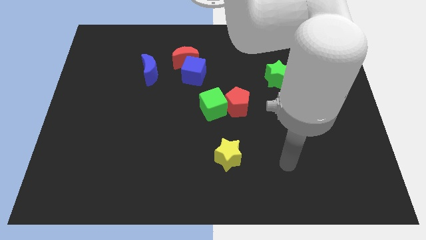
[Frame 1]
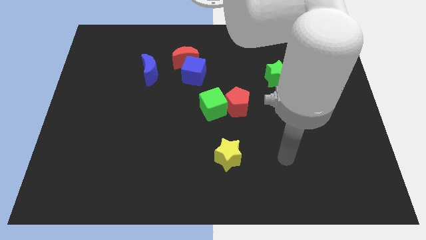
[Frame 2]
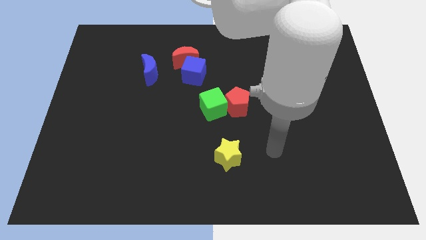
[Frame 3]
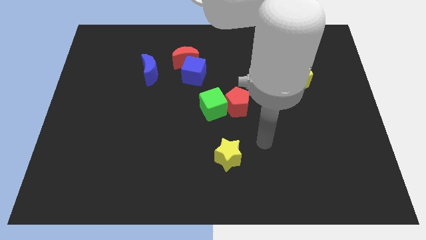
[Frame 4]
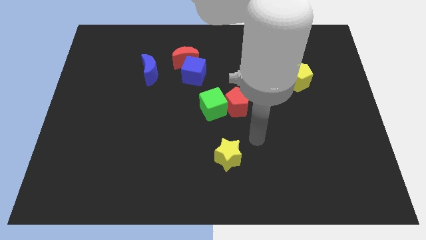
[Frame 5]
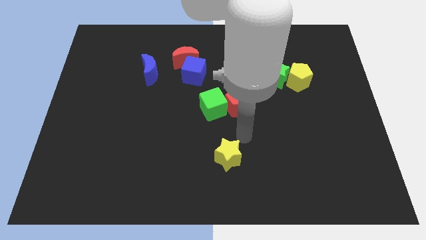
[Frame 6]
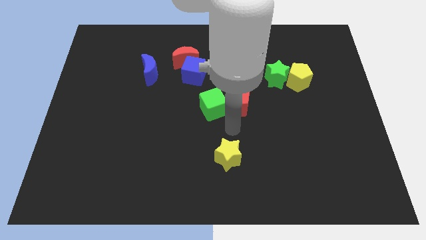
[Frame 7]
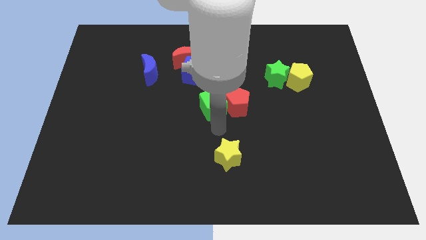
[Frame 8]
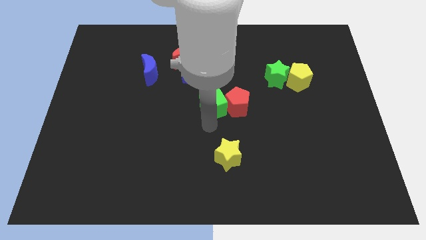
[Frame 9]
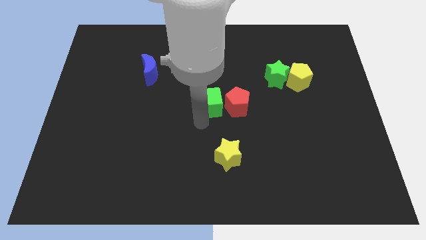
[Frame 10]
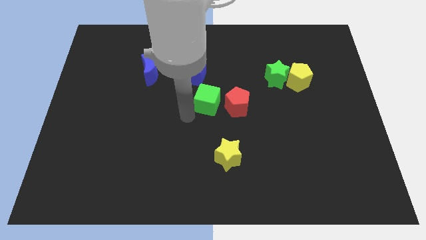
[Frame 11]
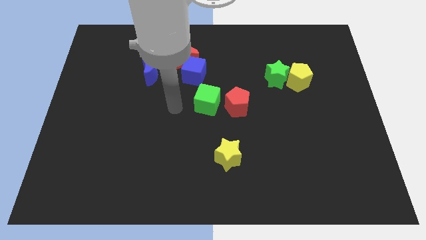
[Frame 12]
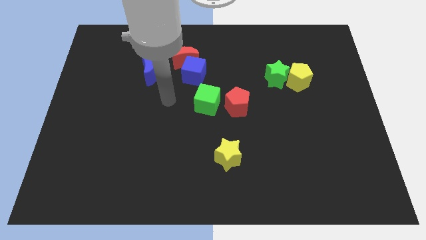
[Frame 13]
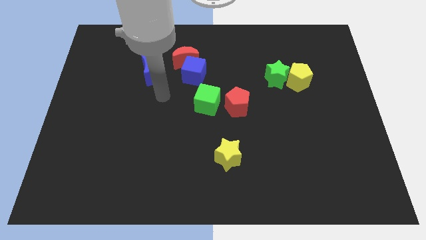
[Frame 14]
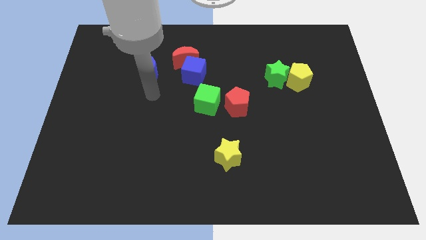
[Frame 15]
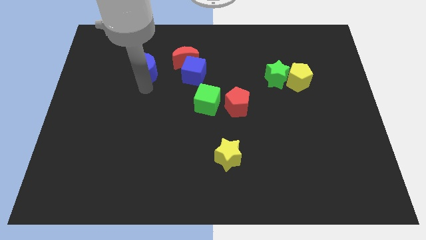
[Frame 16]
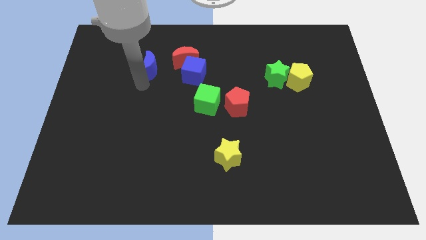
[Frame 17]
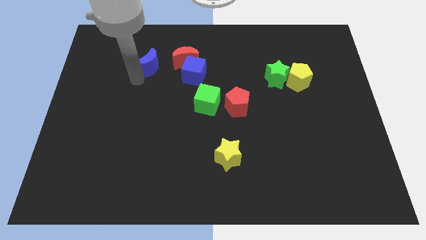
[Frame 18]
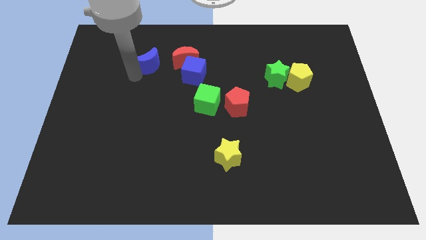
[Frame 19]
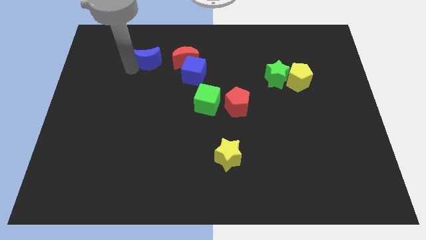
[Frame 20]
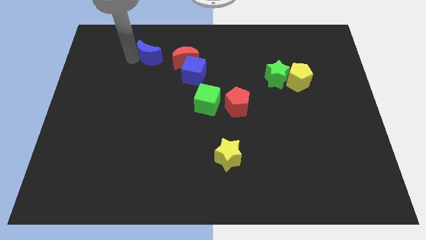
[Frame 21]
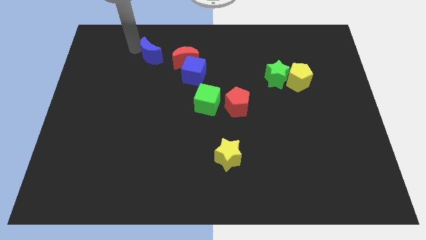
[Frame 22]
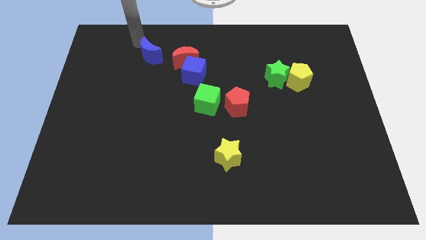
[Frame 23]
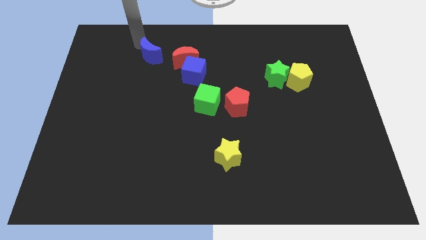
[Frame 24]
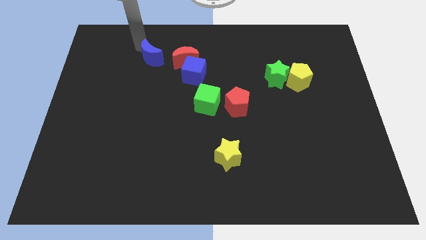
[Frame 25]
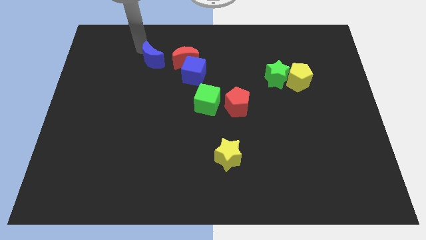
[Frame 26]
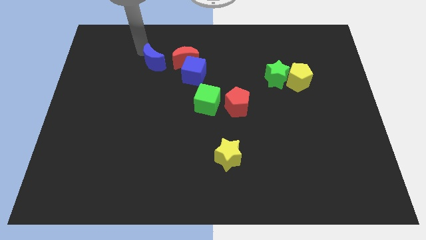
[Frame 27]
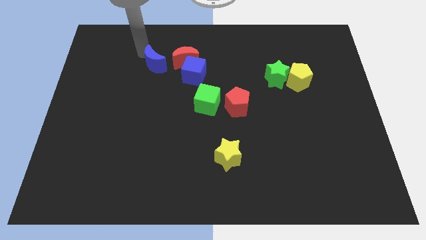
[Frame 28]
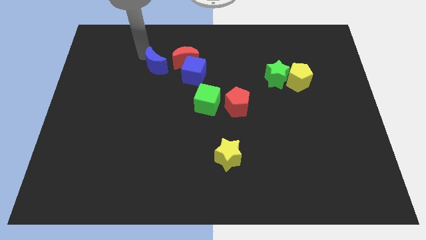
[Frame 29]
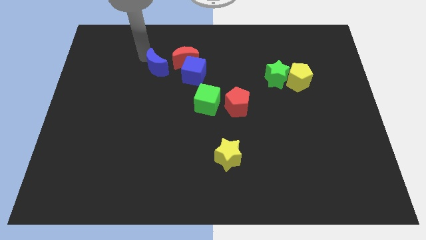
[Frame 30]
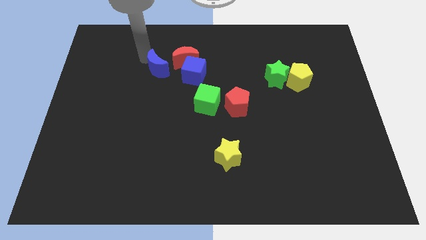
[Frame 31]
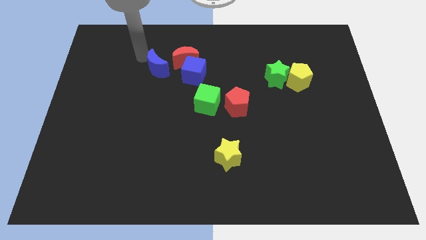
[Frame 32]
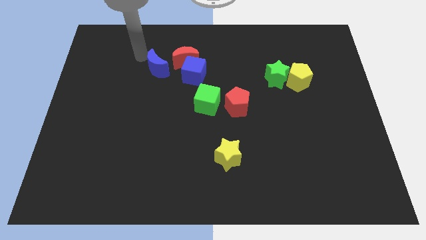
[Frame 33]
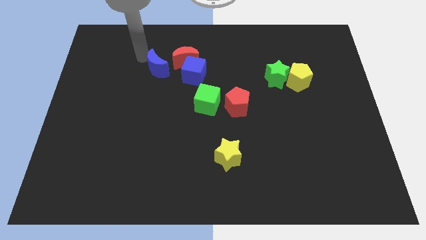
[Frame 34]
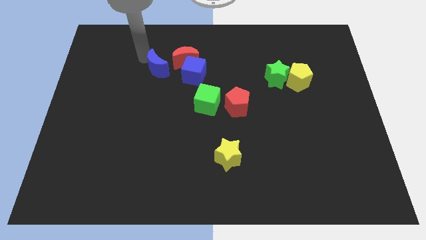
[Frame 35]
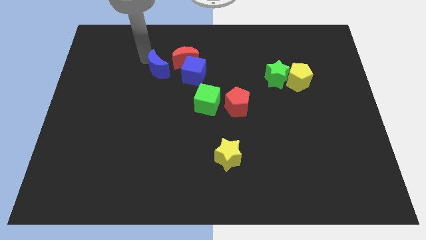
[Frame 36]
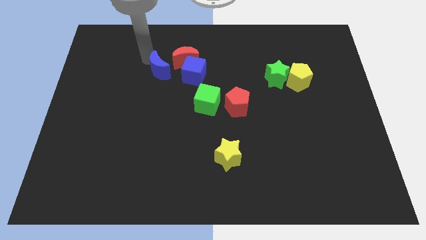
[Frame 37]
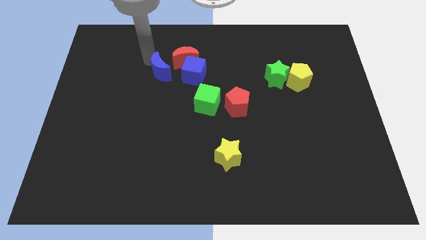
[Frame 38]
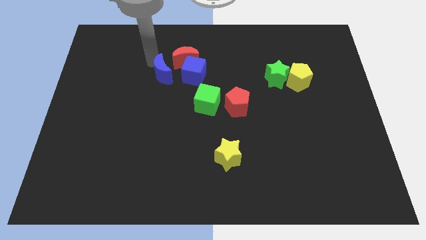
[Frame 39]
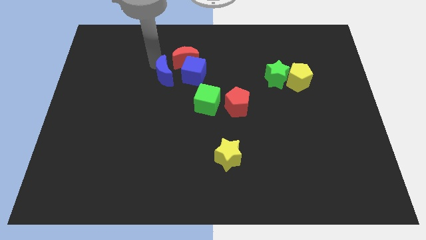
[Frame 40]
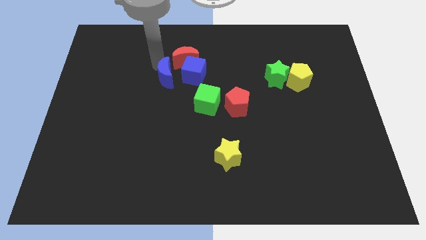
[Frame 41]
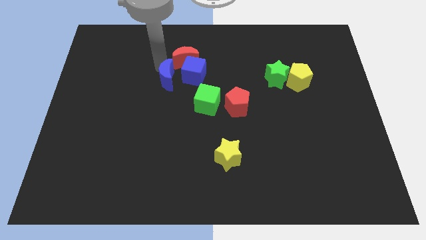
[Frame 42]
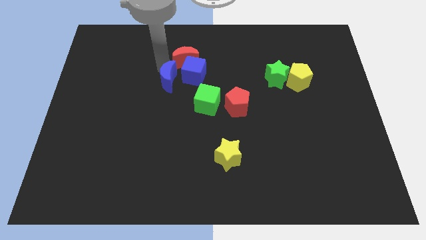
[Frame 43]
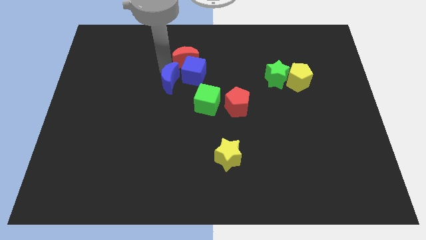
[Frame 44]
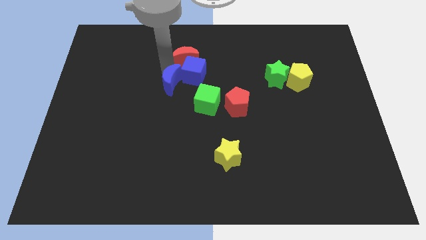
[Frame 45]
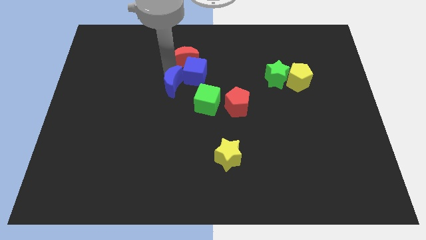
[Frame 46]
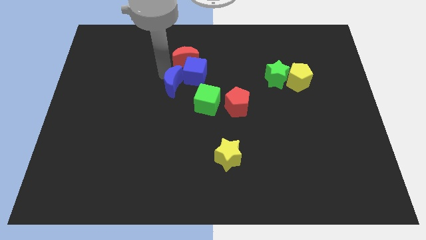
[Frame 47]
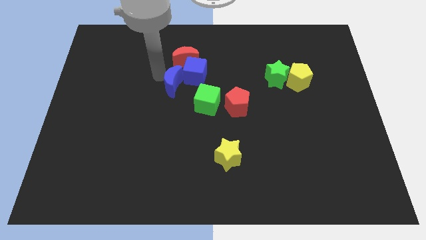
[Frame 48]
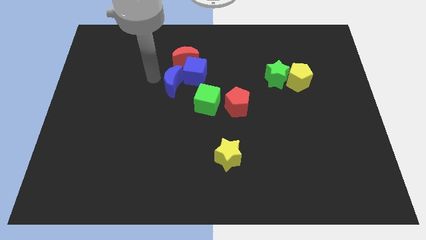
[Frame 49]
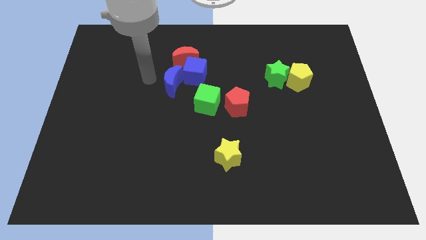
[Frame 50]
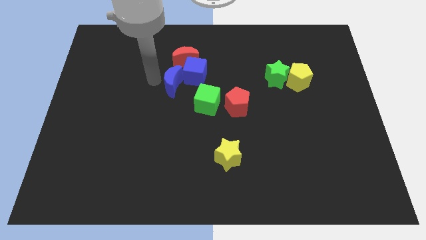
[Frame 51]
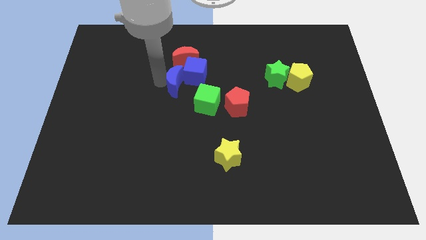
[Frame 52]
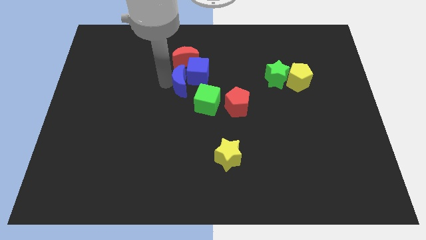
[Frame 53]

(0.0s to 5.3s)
move the blue moon somewhat to the right

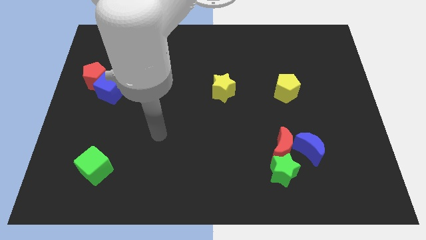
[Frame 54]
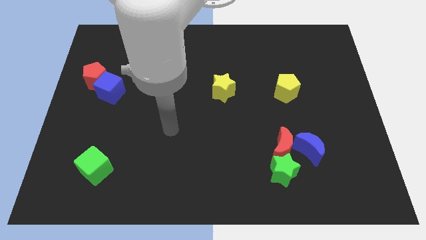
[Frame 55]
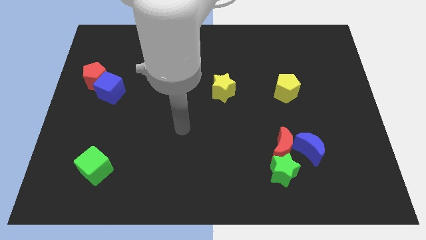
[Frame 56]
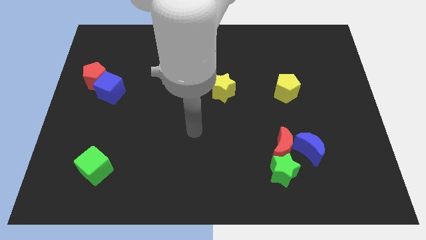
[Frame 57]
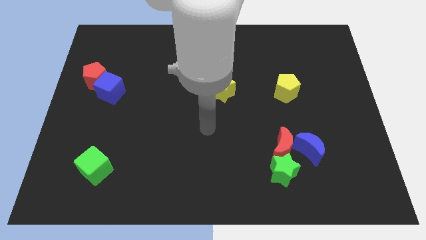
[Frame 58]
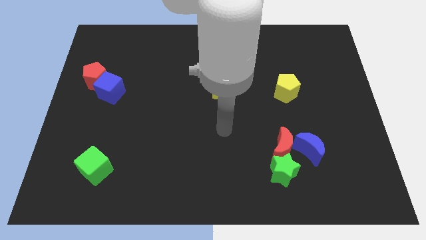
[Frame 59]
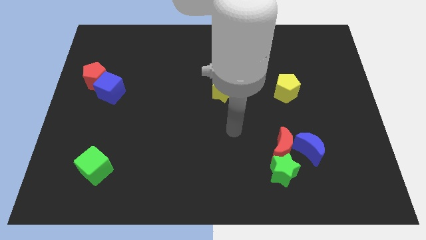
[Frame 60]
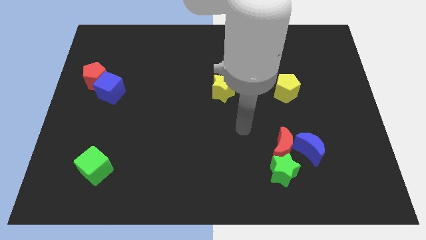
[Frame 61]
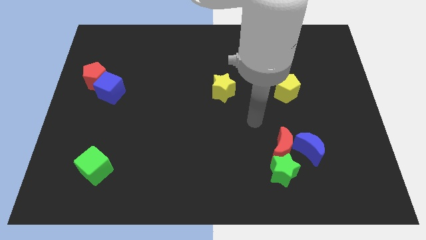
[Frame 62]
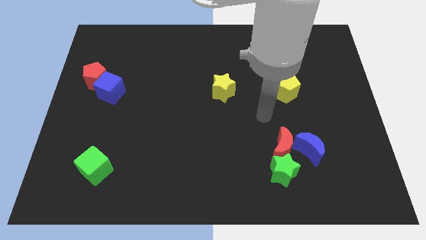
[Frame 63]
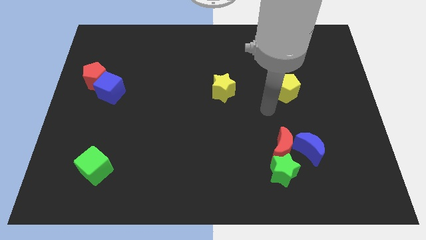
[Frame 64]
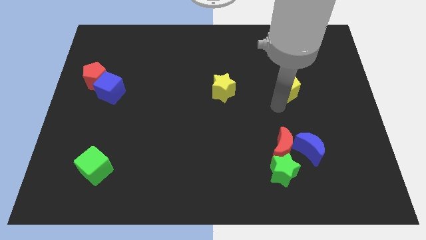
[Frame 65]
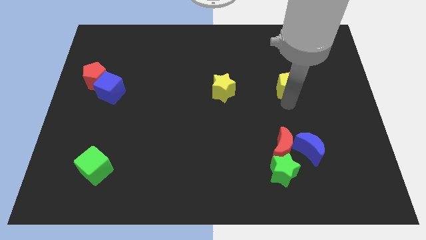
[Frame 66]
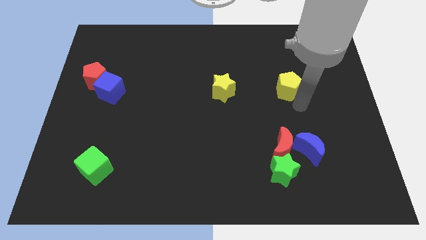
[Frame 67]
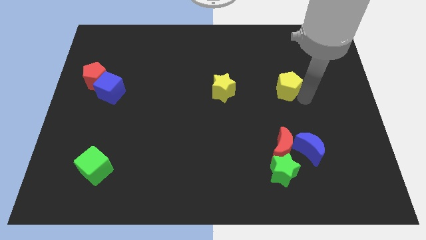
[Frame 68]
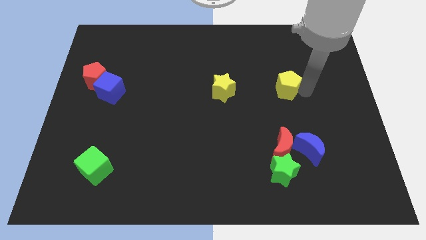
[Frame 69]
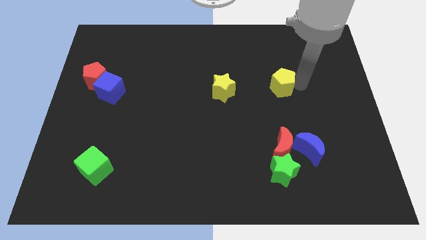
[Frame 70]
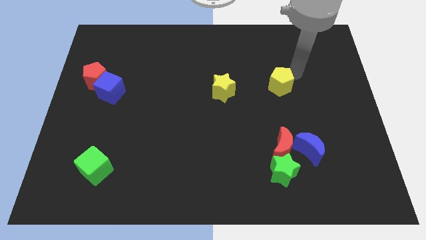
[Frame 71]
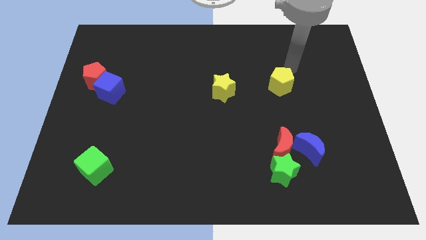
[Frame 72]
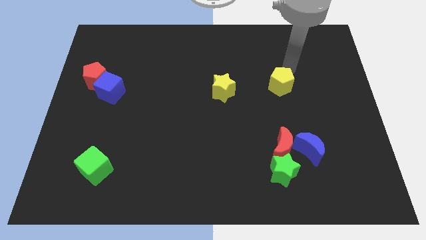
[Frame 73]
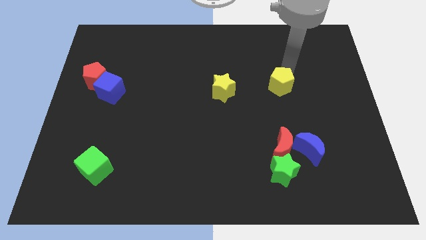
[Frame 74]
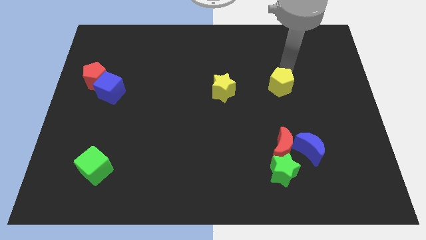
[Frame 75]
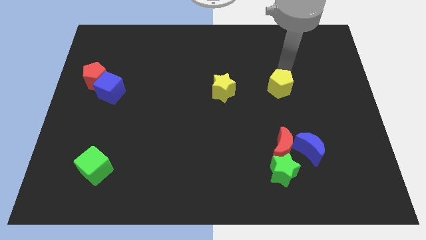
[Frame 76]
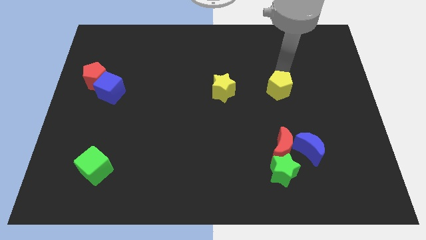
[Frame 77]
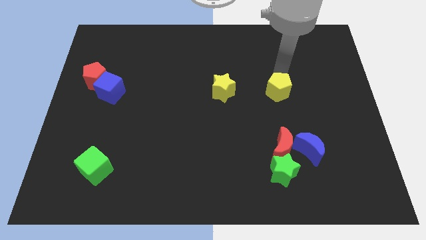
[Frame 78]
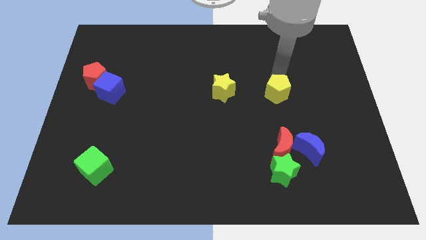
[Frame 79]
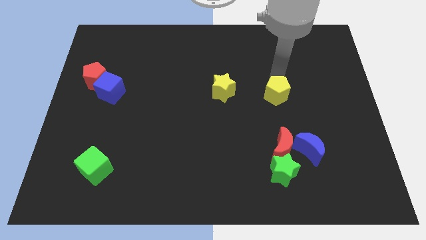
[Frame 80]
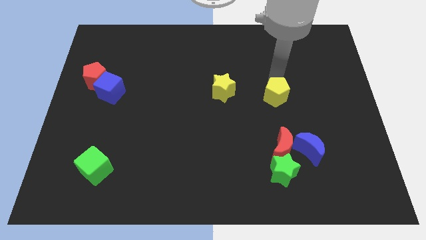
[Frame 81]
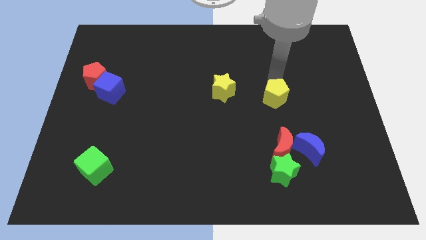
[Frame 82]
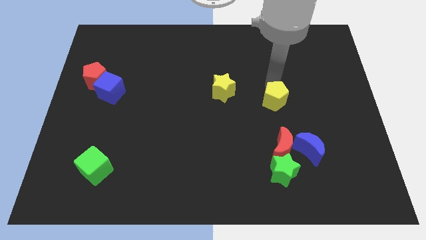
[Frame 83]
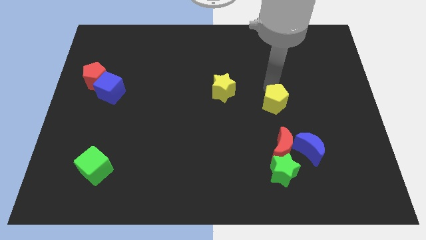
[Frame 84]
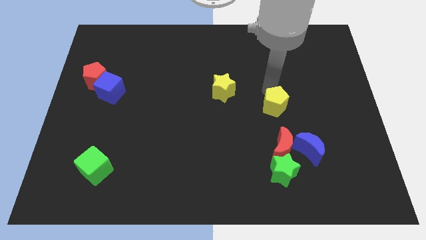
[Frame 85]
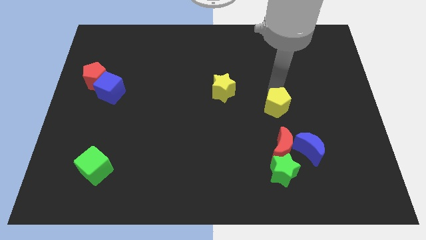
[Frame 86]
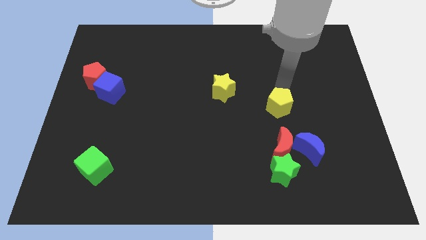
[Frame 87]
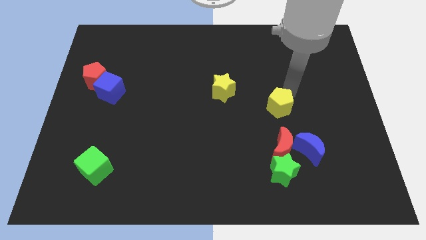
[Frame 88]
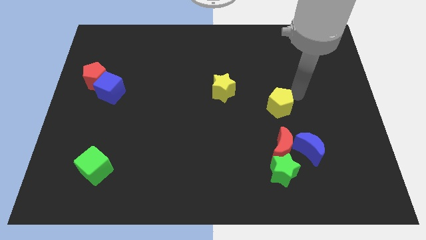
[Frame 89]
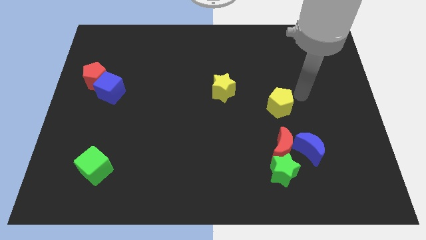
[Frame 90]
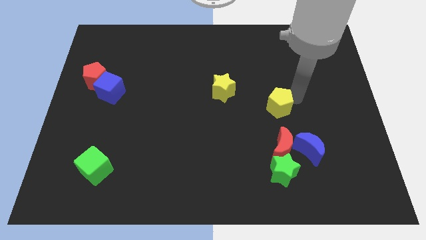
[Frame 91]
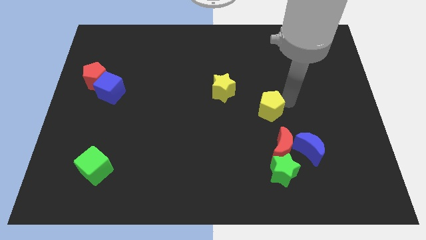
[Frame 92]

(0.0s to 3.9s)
push the yellow pentagon a bit downwards and then left
